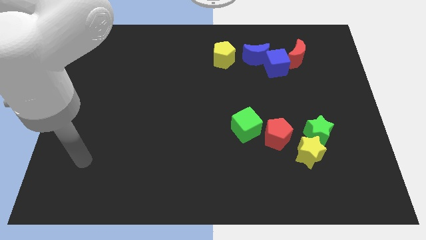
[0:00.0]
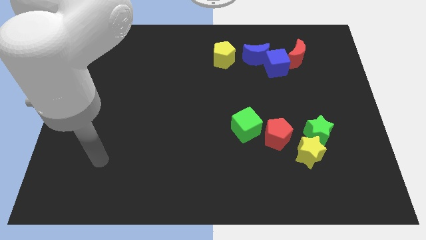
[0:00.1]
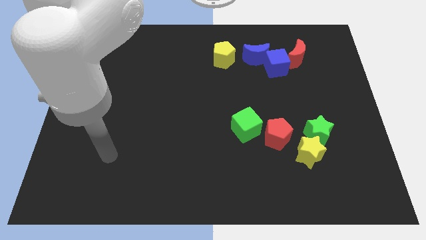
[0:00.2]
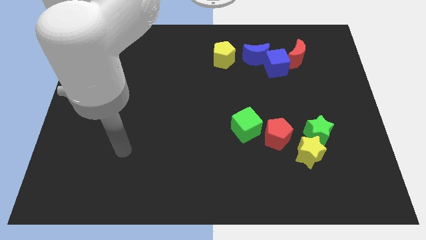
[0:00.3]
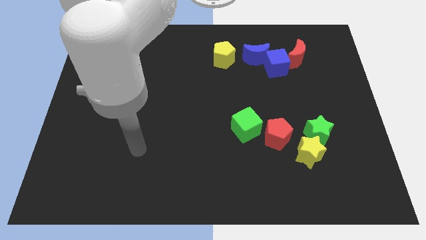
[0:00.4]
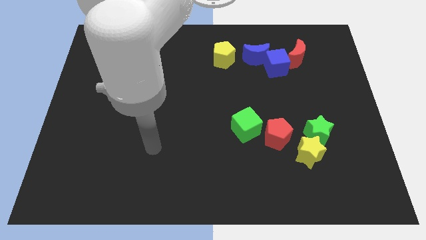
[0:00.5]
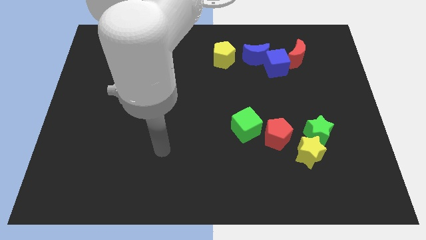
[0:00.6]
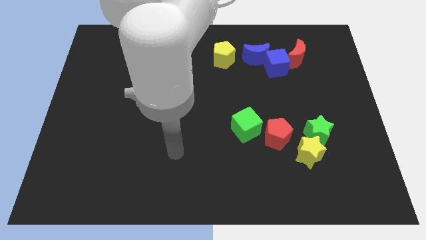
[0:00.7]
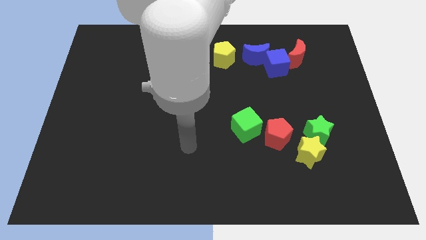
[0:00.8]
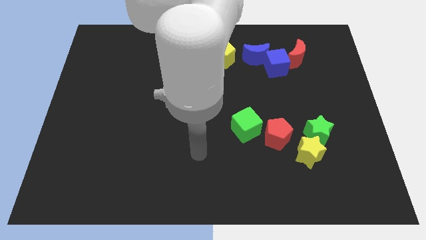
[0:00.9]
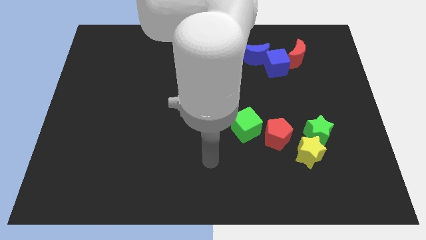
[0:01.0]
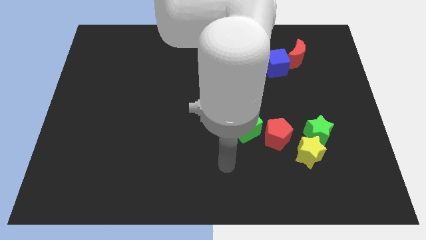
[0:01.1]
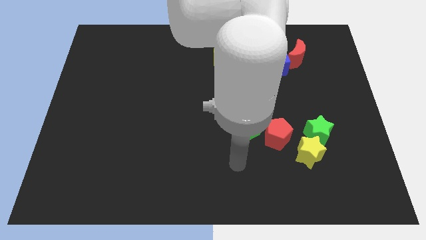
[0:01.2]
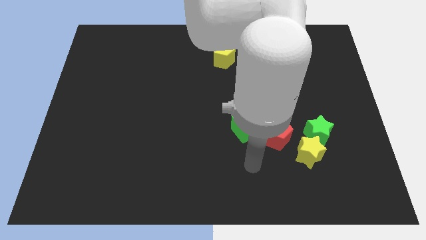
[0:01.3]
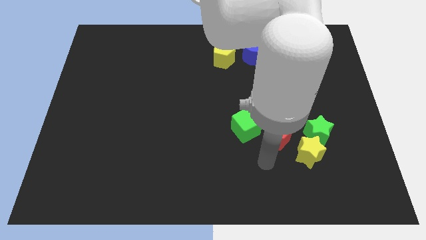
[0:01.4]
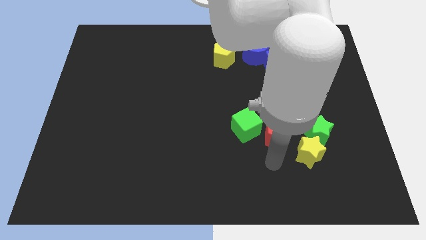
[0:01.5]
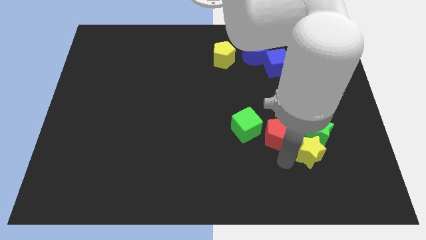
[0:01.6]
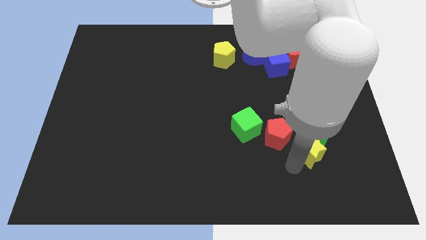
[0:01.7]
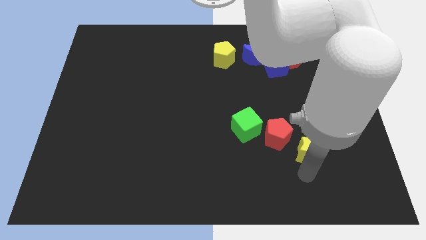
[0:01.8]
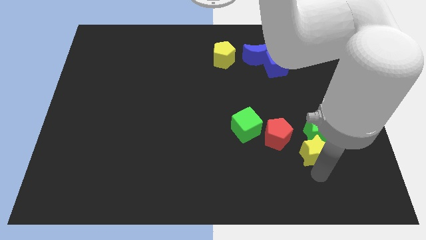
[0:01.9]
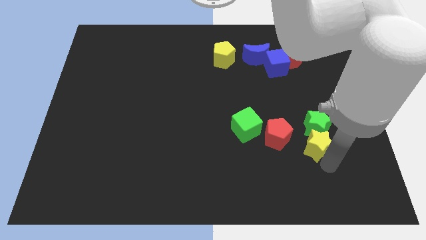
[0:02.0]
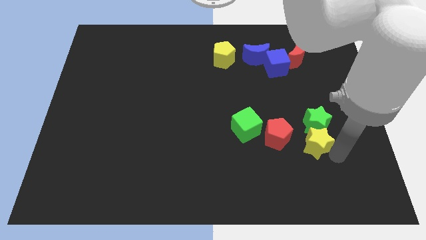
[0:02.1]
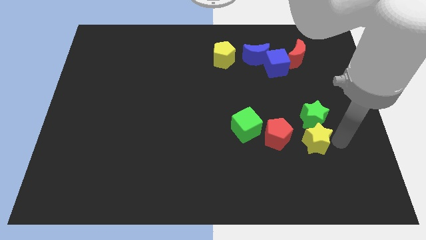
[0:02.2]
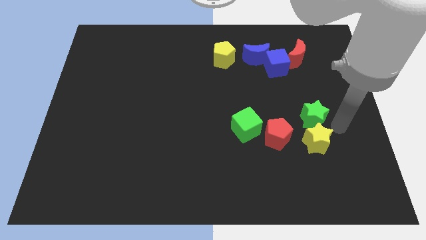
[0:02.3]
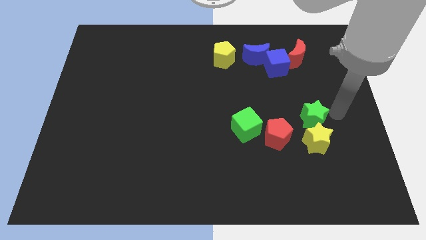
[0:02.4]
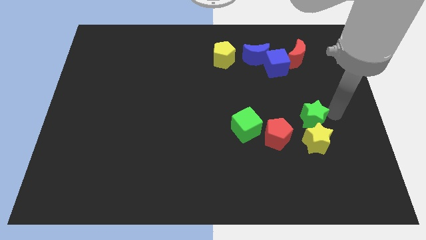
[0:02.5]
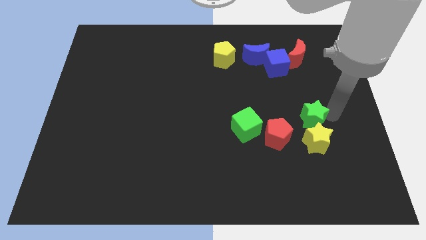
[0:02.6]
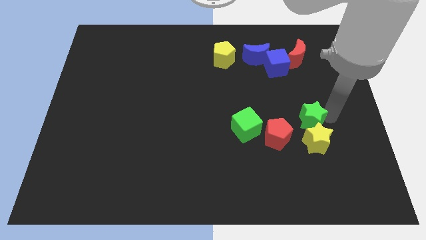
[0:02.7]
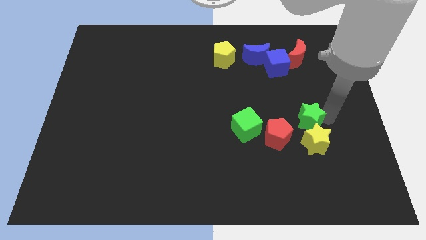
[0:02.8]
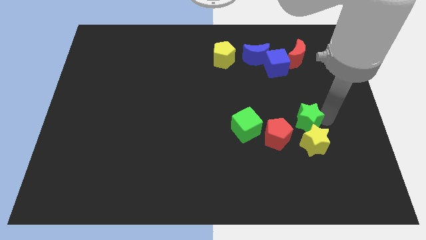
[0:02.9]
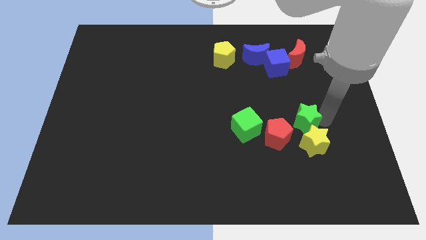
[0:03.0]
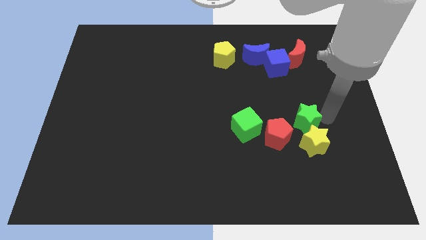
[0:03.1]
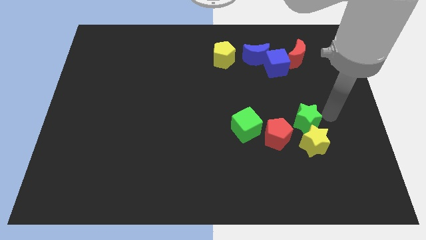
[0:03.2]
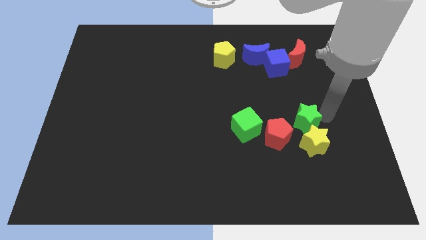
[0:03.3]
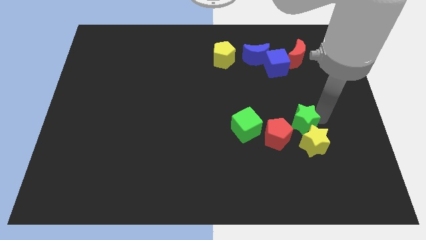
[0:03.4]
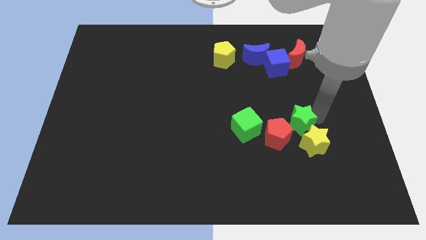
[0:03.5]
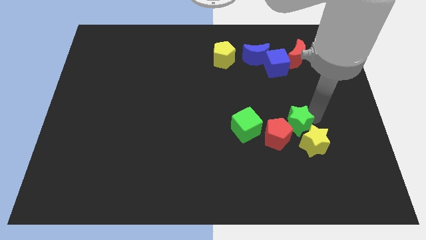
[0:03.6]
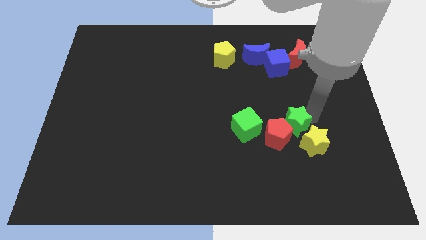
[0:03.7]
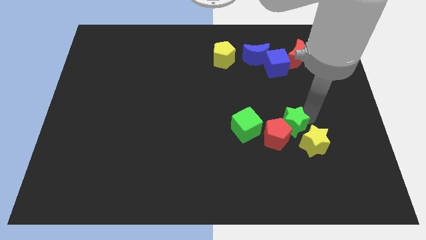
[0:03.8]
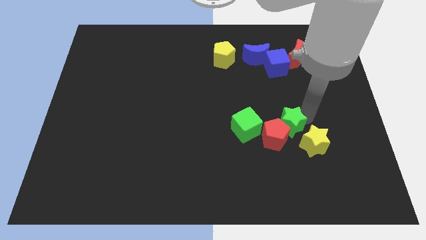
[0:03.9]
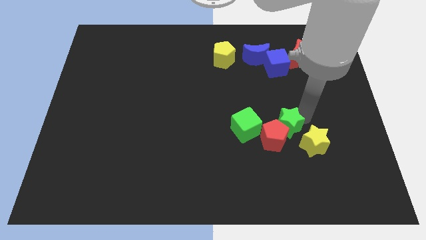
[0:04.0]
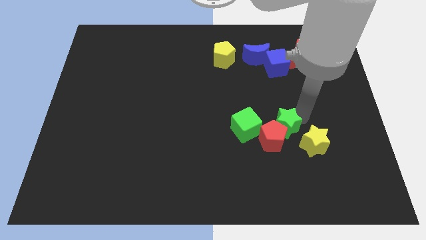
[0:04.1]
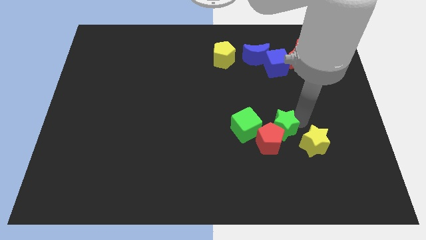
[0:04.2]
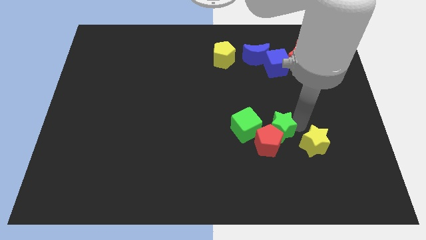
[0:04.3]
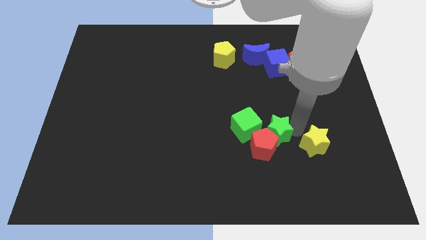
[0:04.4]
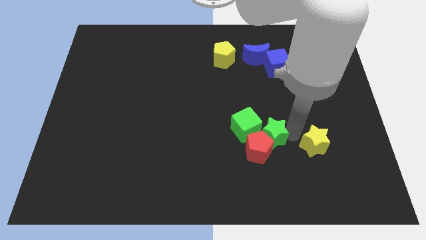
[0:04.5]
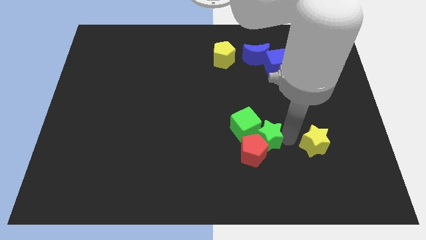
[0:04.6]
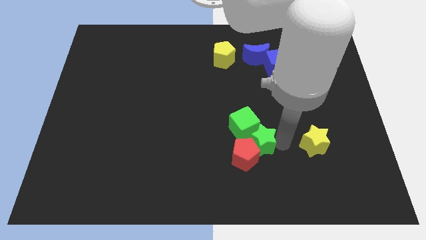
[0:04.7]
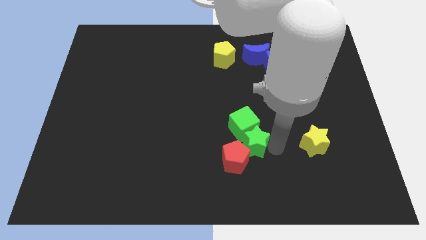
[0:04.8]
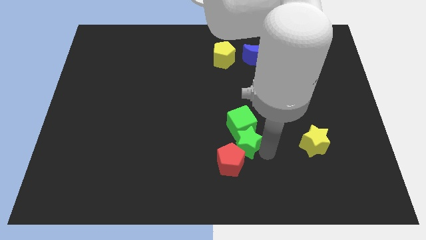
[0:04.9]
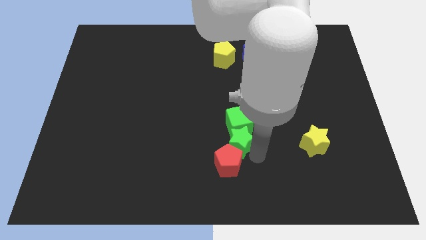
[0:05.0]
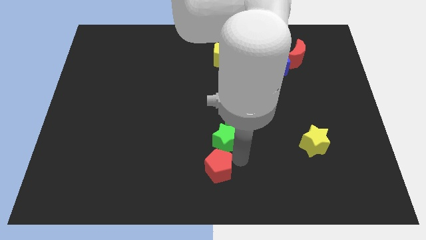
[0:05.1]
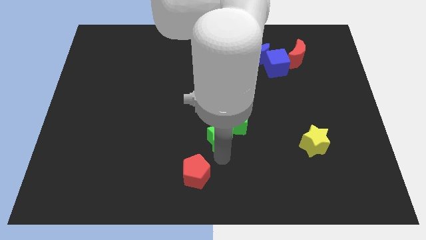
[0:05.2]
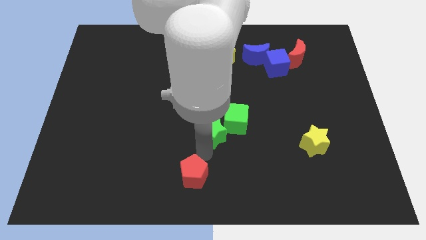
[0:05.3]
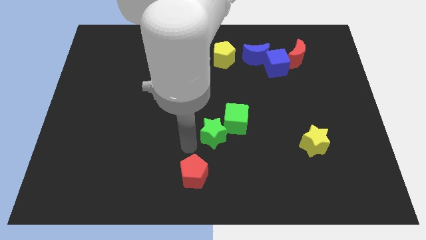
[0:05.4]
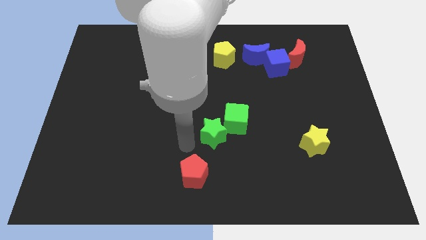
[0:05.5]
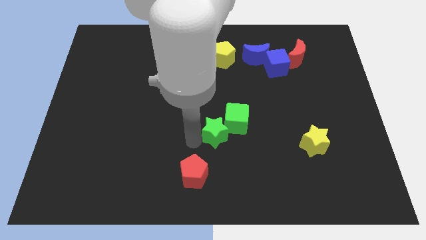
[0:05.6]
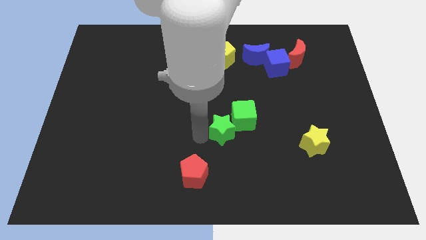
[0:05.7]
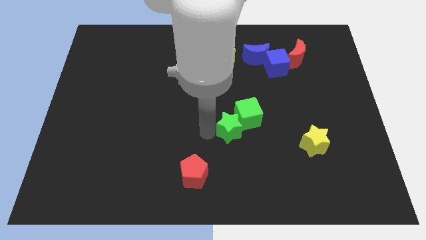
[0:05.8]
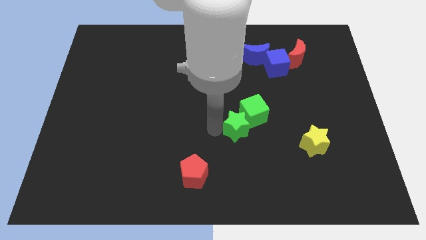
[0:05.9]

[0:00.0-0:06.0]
push the green star a little bit upwards and left diagonally

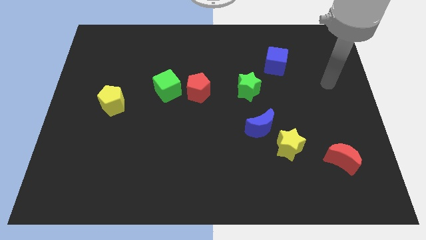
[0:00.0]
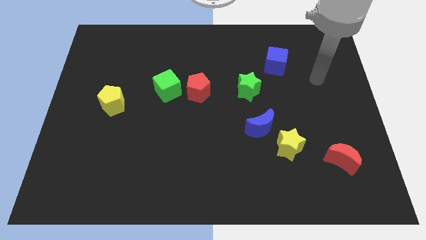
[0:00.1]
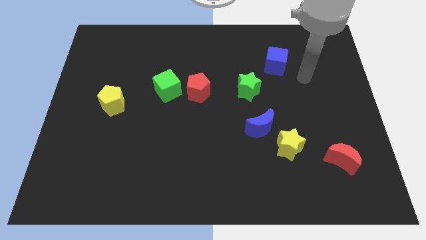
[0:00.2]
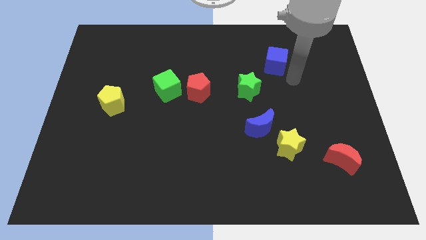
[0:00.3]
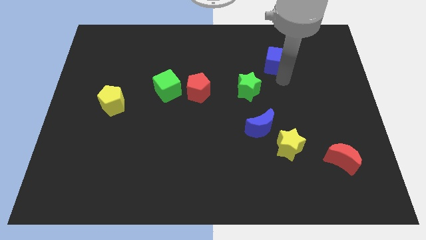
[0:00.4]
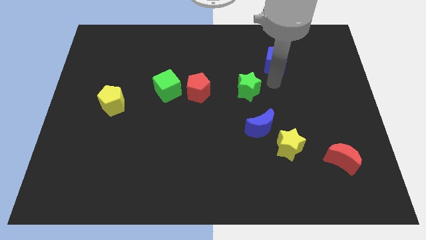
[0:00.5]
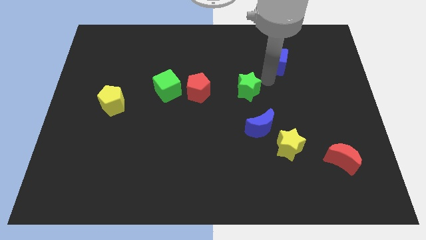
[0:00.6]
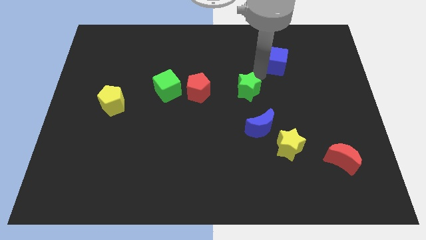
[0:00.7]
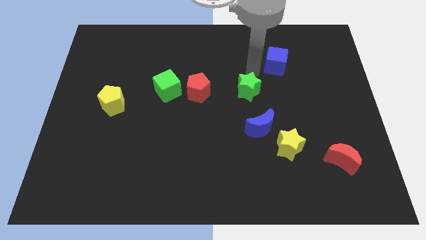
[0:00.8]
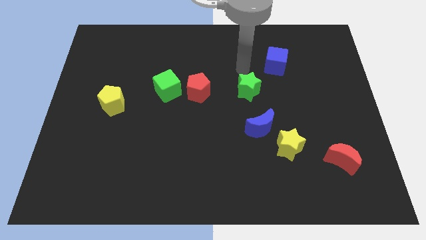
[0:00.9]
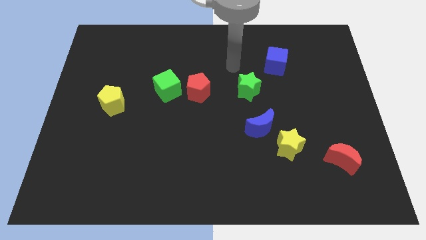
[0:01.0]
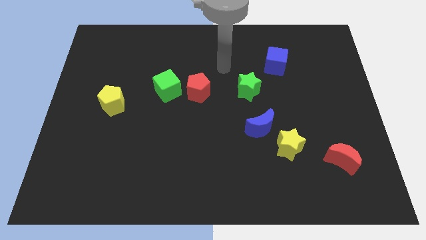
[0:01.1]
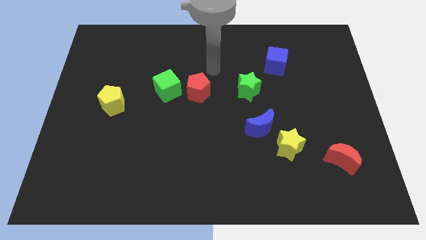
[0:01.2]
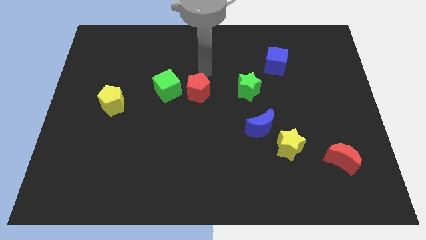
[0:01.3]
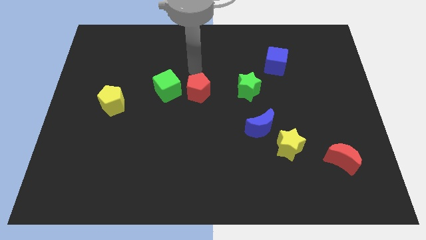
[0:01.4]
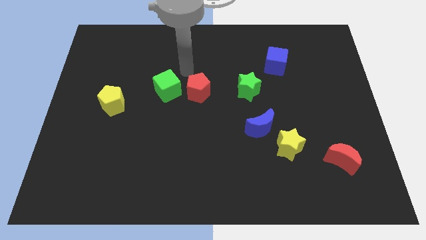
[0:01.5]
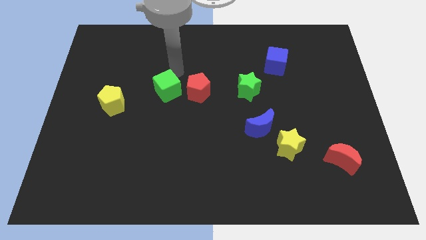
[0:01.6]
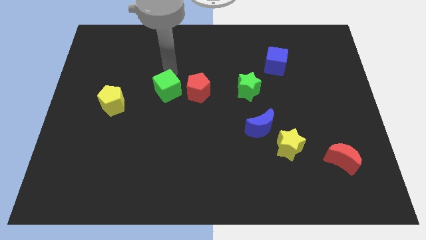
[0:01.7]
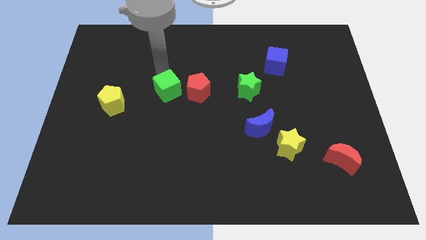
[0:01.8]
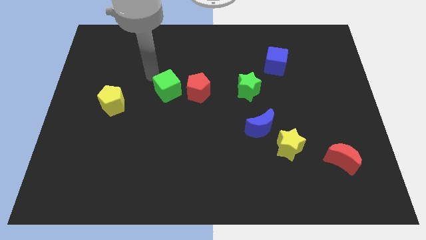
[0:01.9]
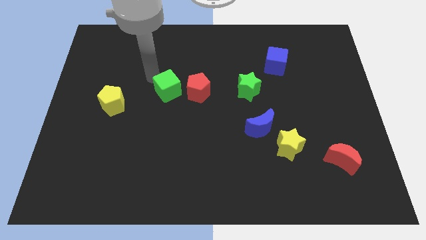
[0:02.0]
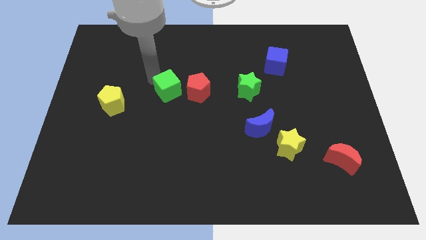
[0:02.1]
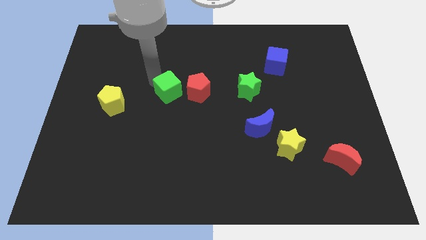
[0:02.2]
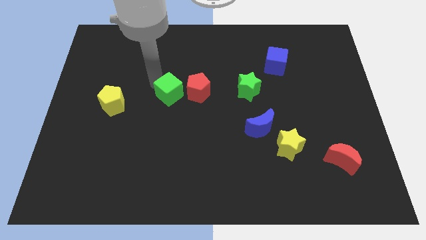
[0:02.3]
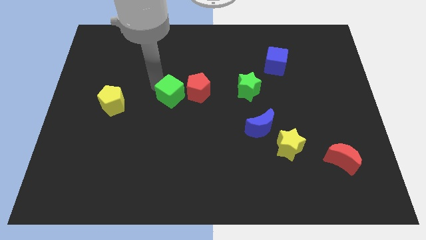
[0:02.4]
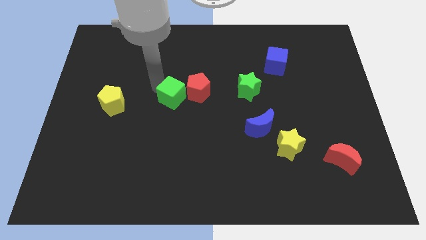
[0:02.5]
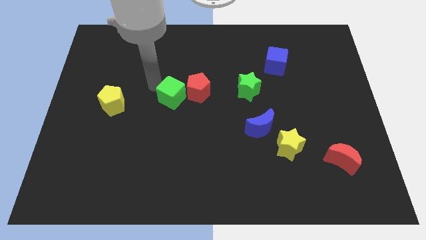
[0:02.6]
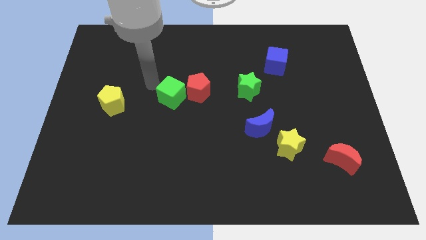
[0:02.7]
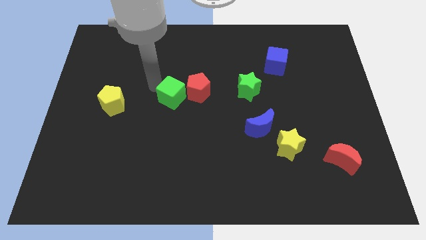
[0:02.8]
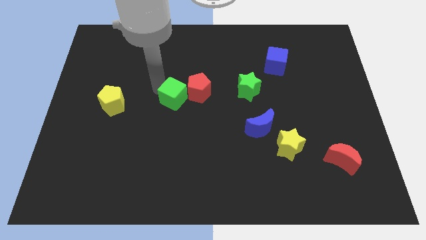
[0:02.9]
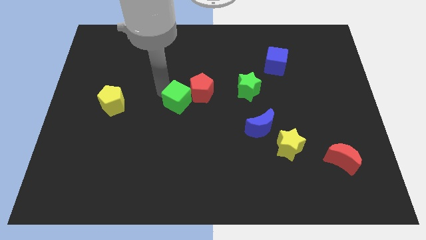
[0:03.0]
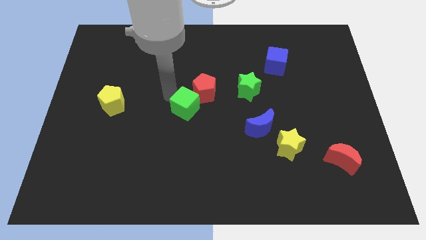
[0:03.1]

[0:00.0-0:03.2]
slide the green cube down and right diagonally a little bit
